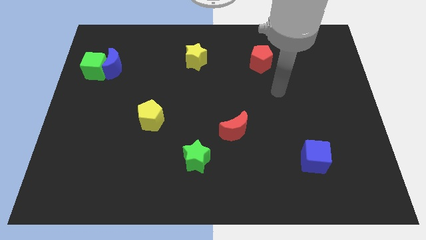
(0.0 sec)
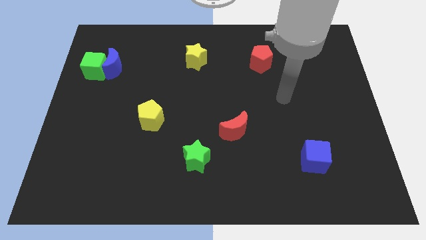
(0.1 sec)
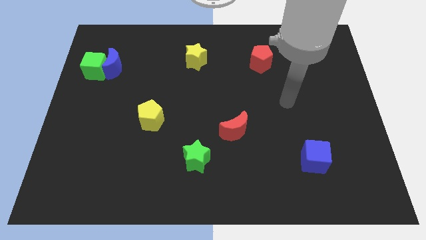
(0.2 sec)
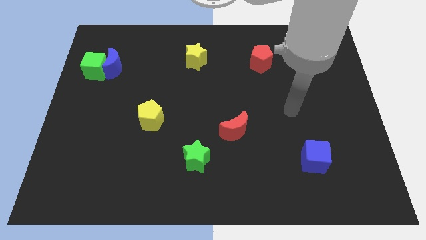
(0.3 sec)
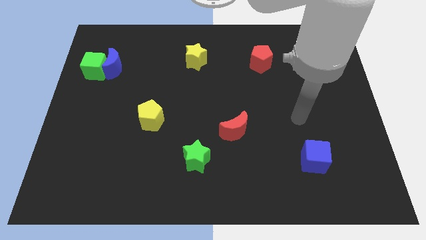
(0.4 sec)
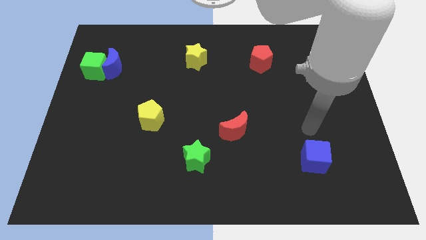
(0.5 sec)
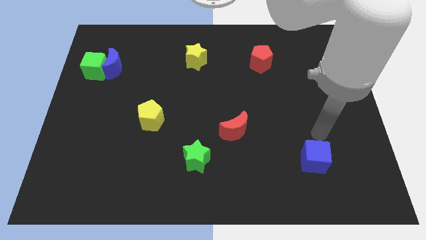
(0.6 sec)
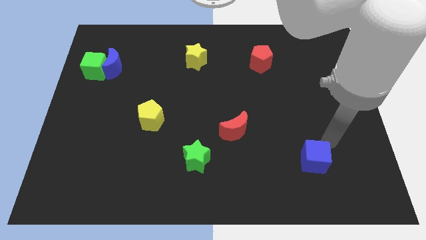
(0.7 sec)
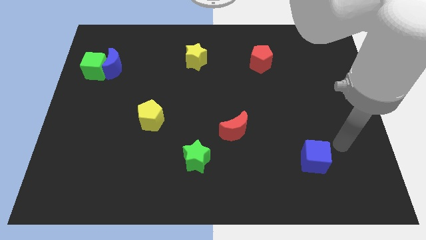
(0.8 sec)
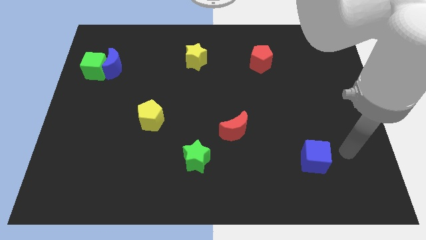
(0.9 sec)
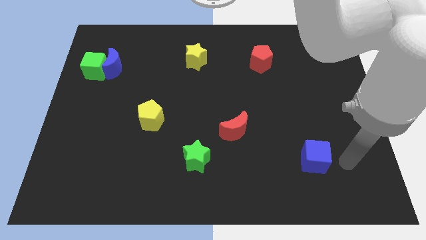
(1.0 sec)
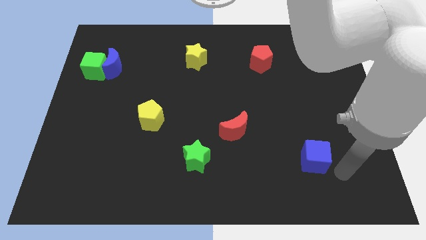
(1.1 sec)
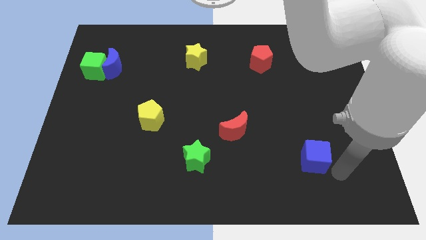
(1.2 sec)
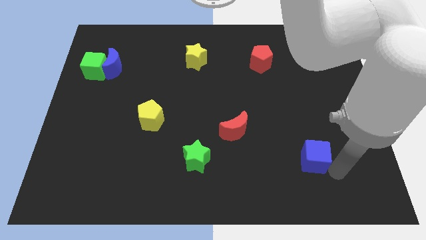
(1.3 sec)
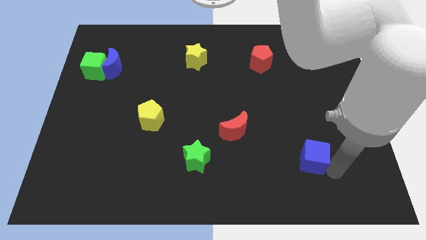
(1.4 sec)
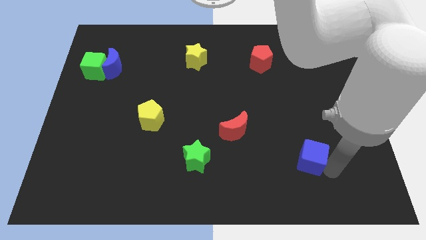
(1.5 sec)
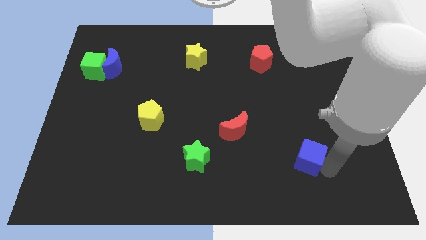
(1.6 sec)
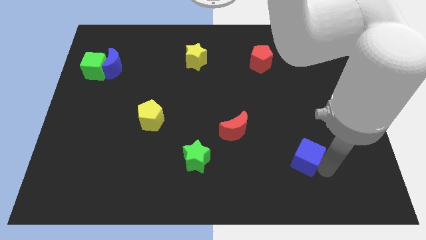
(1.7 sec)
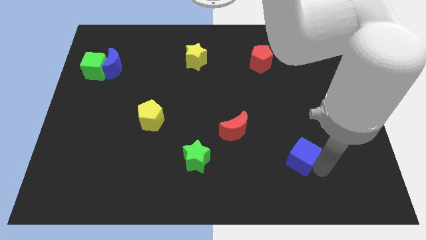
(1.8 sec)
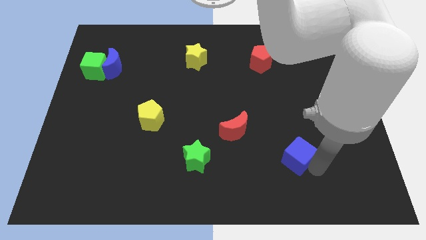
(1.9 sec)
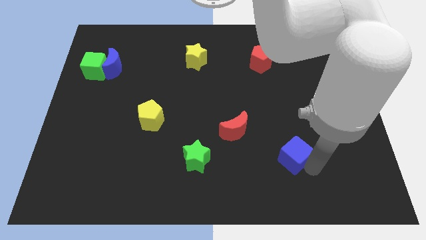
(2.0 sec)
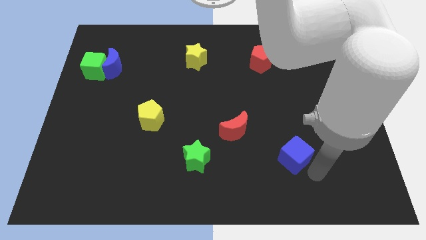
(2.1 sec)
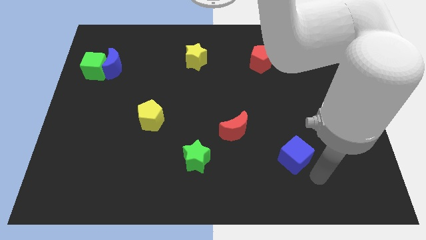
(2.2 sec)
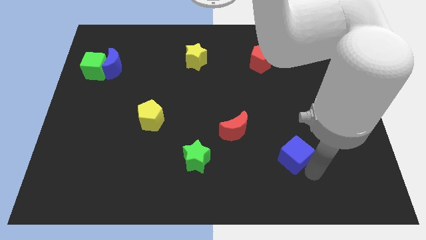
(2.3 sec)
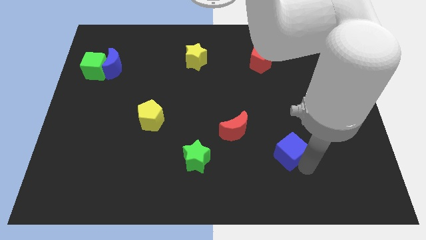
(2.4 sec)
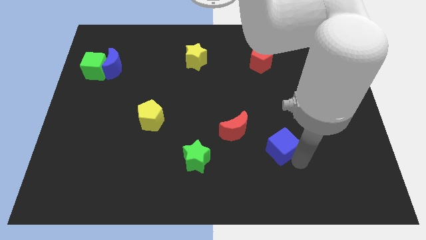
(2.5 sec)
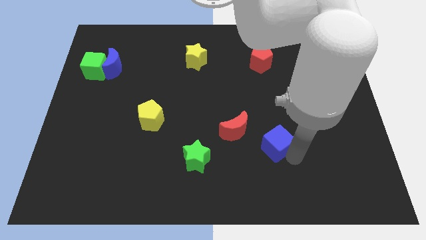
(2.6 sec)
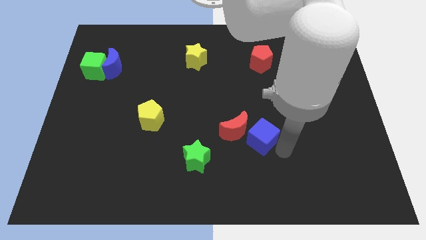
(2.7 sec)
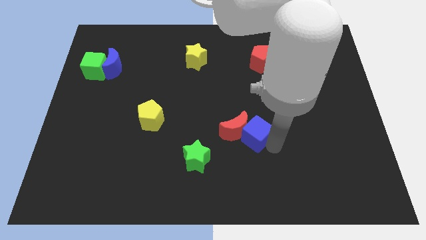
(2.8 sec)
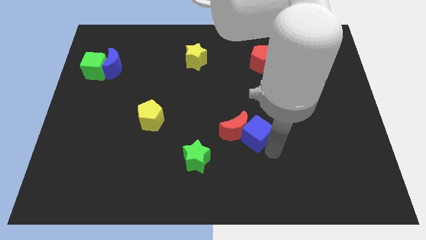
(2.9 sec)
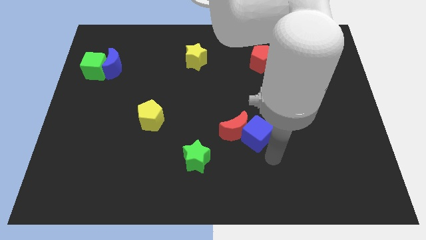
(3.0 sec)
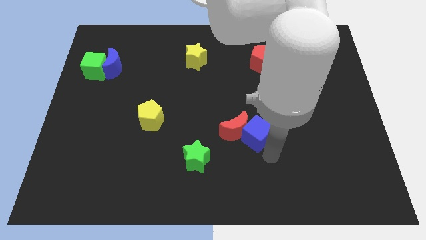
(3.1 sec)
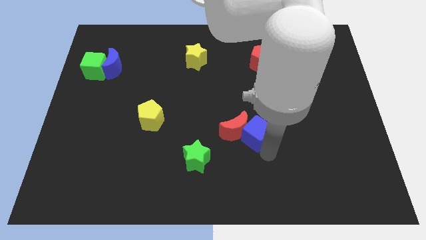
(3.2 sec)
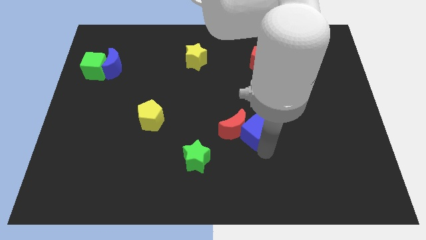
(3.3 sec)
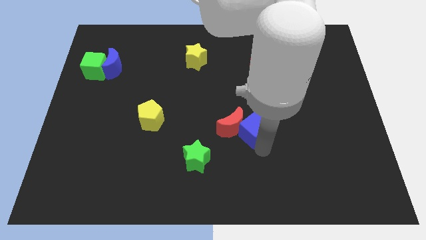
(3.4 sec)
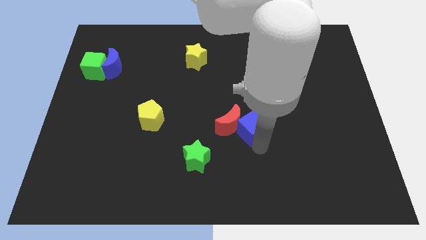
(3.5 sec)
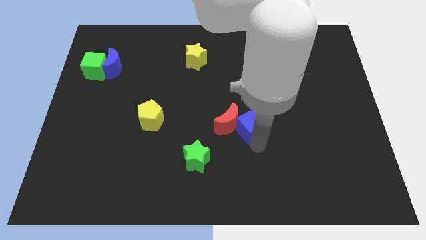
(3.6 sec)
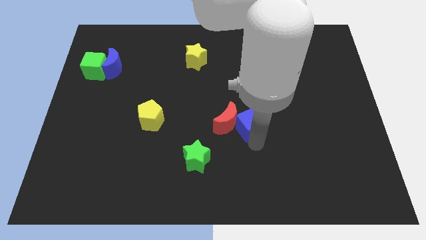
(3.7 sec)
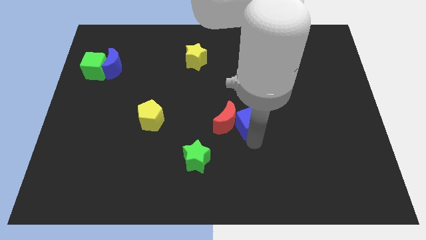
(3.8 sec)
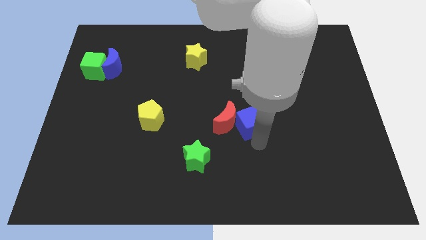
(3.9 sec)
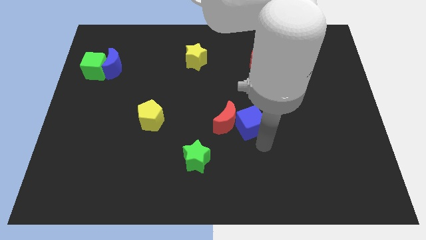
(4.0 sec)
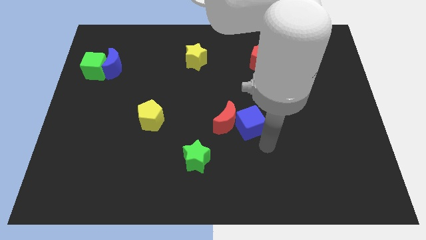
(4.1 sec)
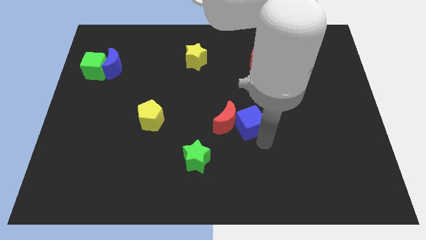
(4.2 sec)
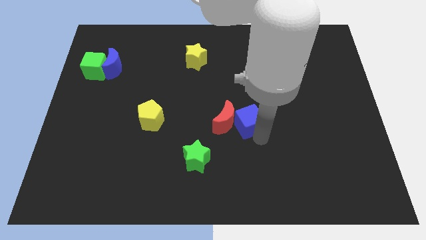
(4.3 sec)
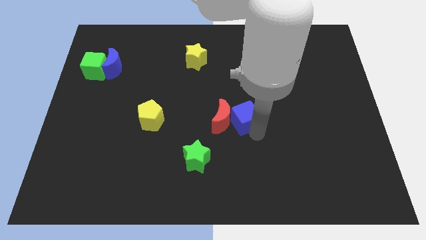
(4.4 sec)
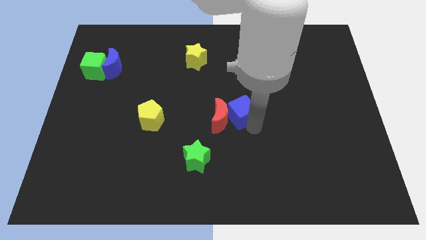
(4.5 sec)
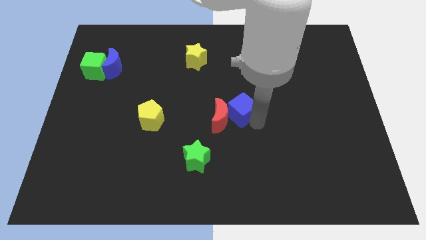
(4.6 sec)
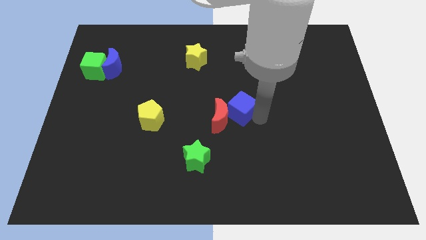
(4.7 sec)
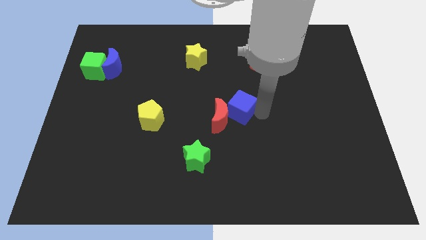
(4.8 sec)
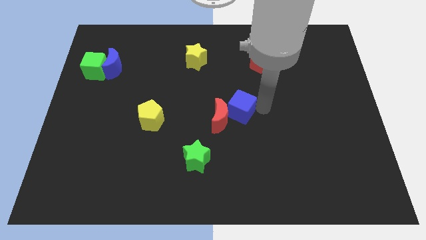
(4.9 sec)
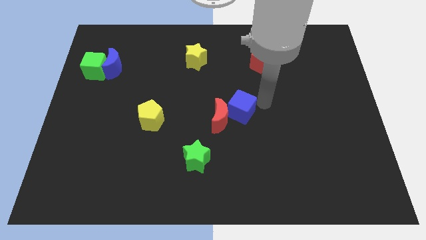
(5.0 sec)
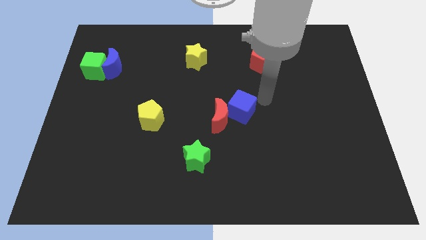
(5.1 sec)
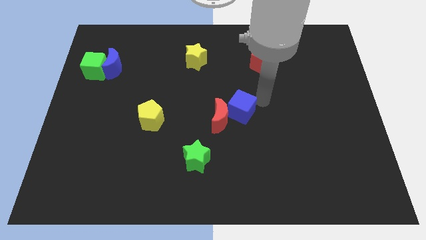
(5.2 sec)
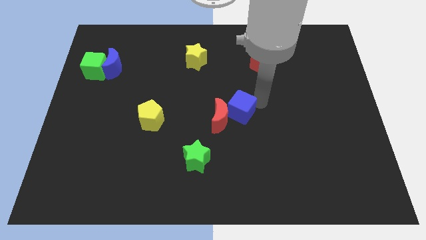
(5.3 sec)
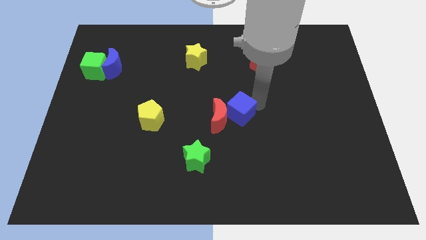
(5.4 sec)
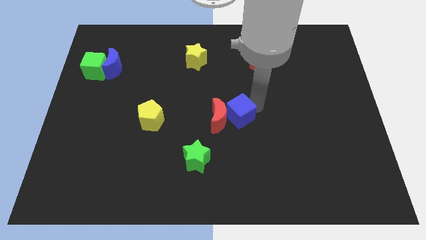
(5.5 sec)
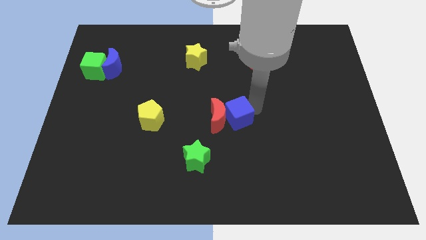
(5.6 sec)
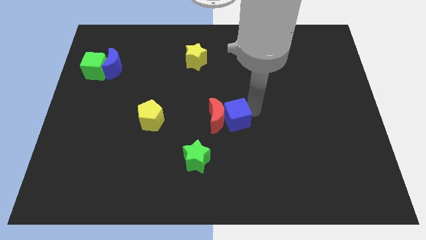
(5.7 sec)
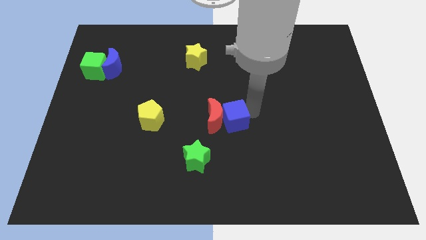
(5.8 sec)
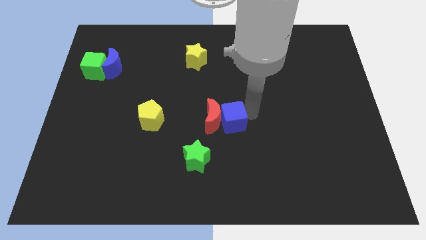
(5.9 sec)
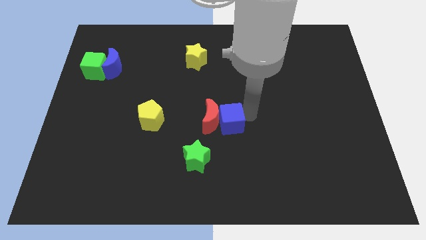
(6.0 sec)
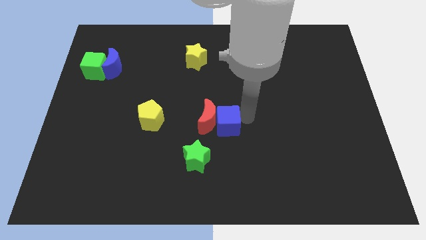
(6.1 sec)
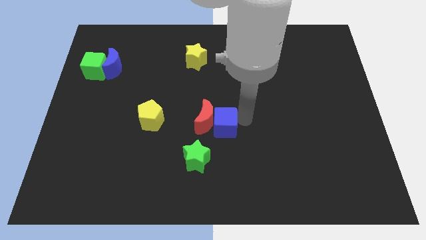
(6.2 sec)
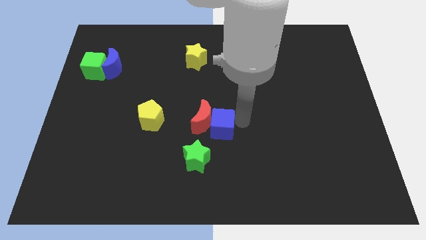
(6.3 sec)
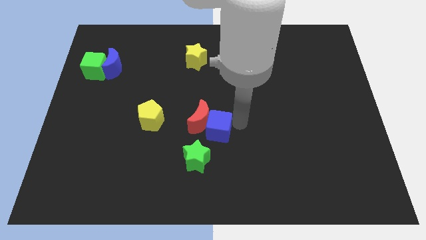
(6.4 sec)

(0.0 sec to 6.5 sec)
push the blue cube just right of the yellow pentagon

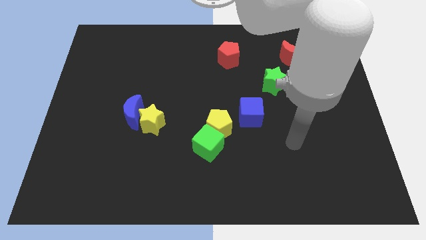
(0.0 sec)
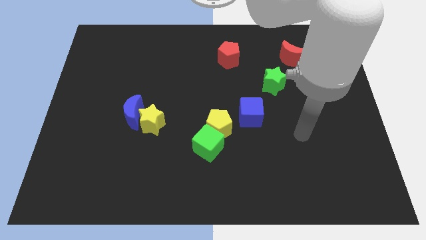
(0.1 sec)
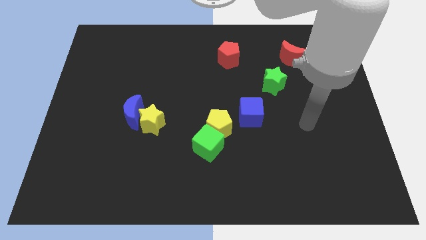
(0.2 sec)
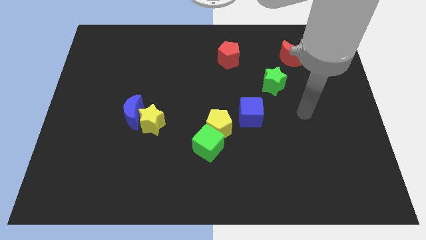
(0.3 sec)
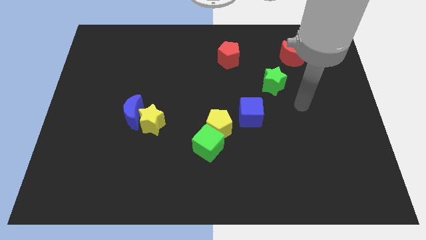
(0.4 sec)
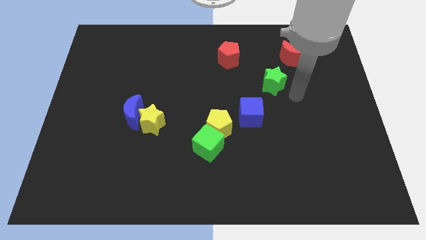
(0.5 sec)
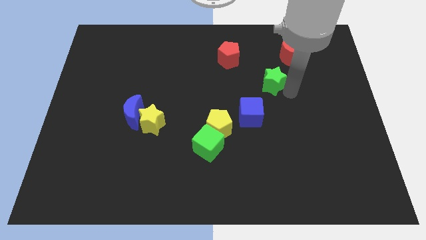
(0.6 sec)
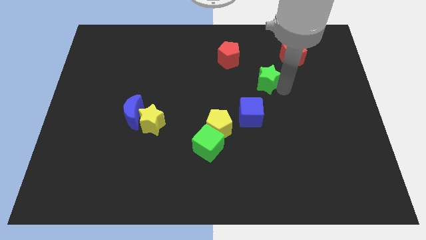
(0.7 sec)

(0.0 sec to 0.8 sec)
slide the green star to the bottom right of the red pentagon

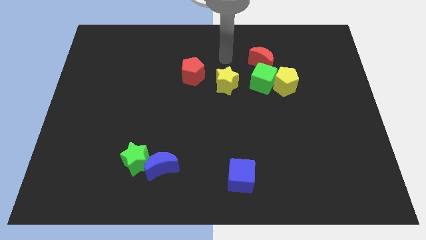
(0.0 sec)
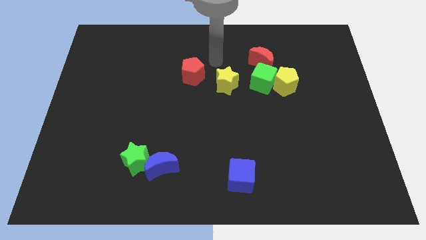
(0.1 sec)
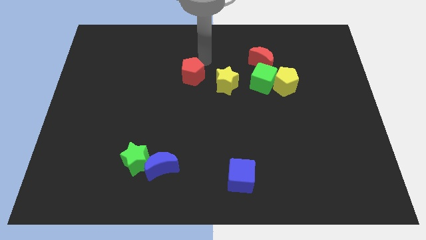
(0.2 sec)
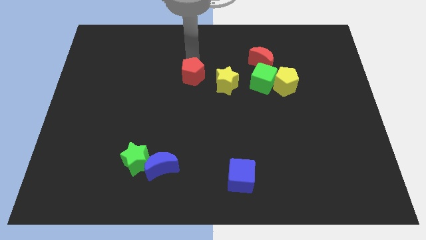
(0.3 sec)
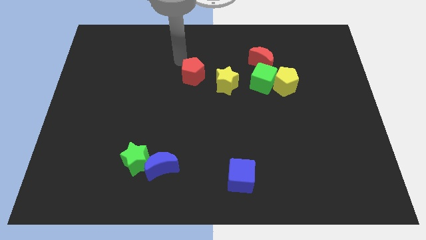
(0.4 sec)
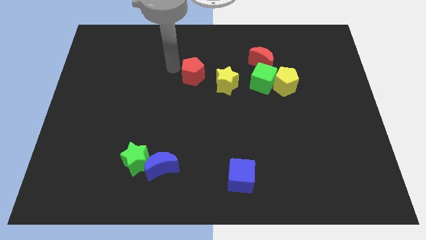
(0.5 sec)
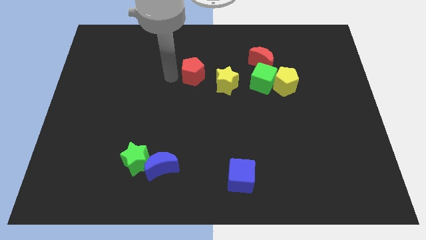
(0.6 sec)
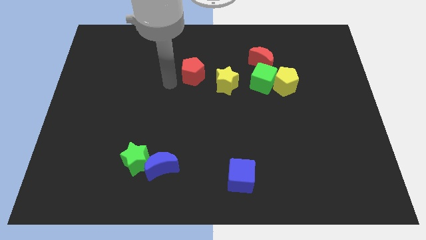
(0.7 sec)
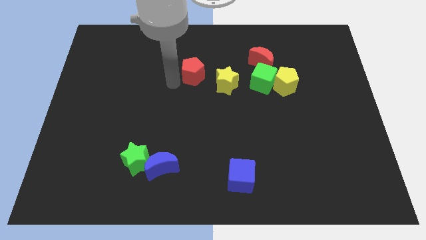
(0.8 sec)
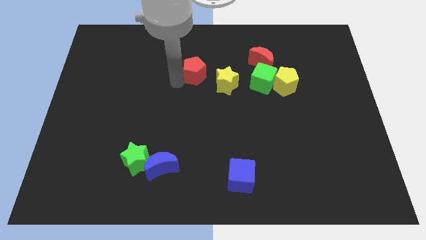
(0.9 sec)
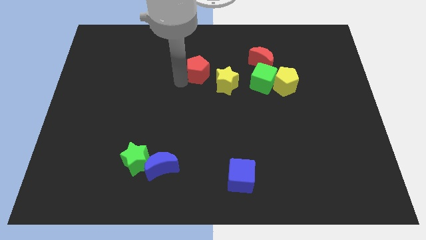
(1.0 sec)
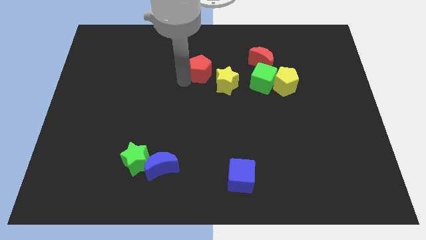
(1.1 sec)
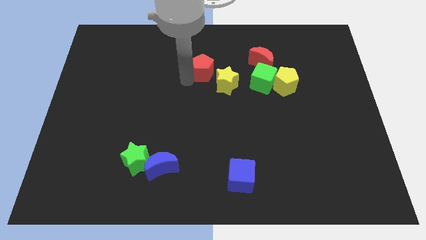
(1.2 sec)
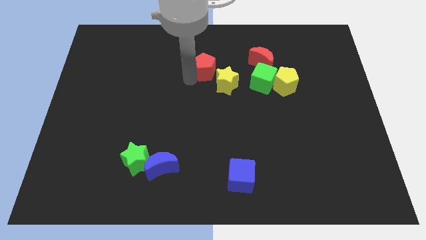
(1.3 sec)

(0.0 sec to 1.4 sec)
move the red pentagon to the left of the red moon
